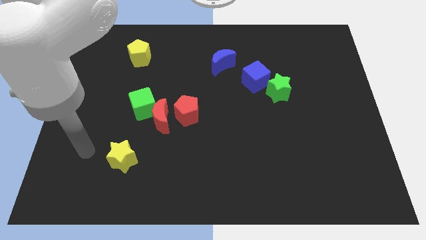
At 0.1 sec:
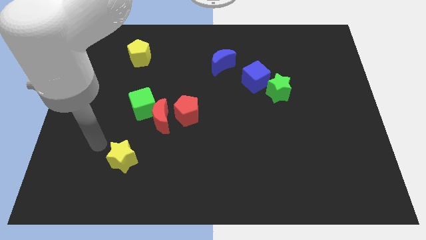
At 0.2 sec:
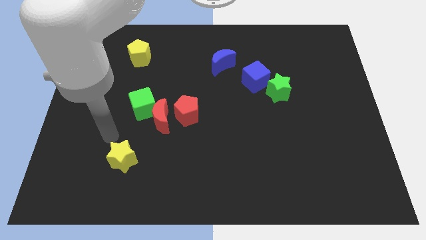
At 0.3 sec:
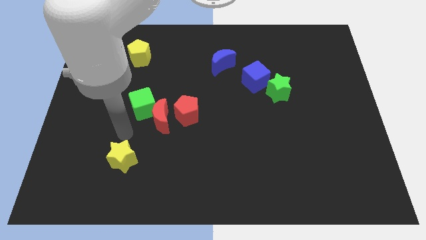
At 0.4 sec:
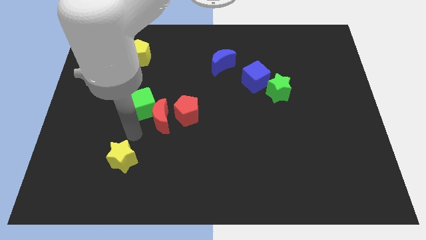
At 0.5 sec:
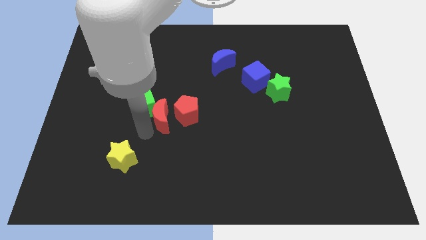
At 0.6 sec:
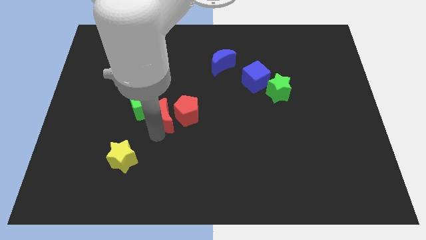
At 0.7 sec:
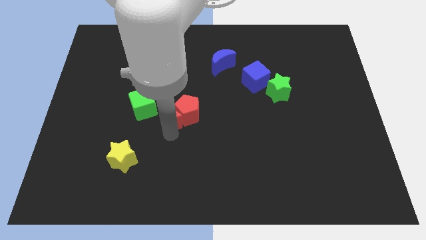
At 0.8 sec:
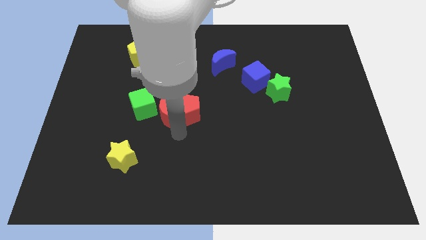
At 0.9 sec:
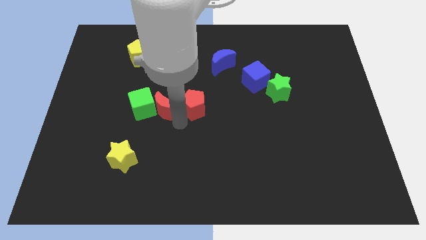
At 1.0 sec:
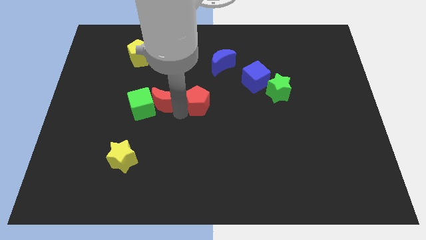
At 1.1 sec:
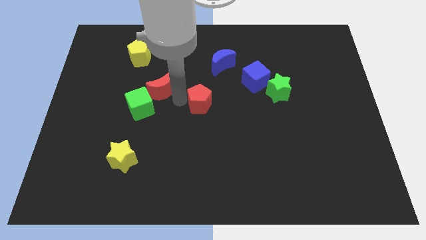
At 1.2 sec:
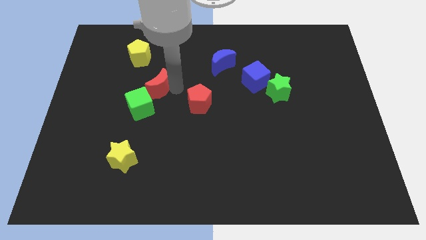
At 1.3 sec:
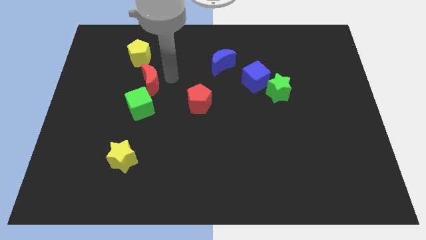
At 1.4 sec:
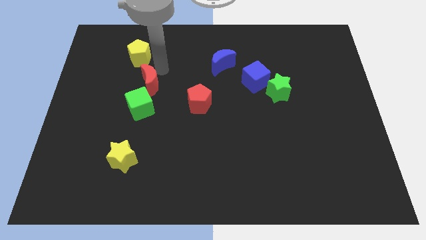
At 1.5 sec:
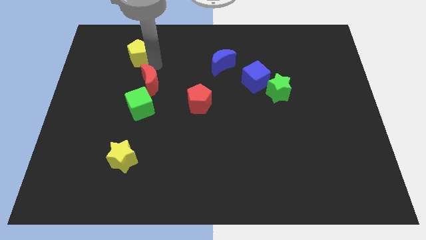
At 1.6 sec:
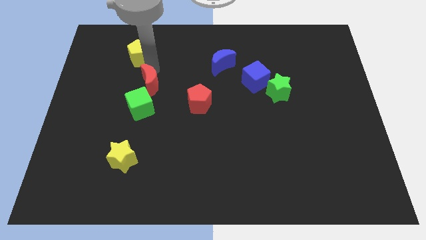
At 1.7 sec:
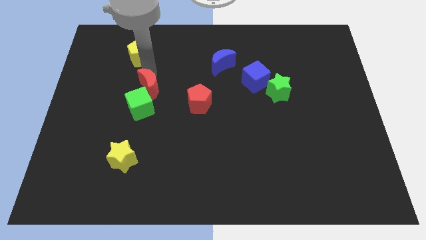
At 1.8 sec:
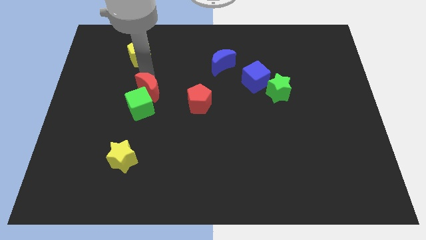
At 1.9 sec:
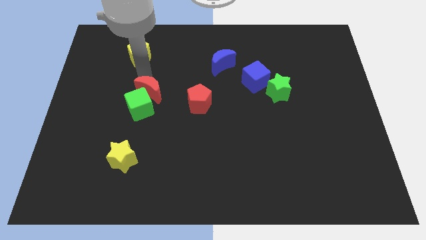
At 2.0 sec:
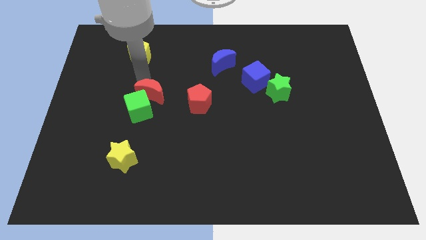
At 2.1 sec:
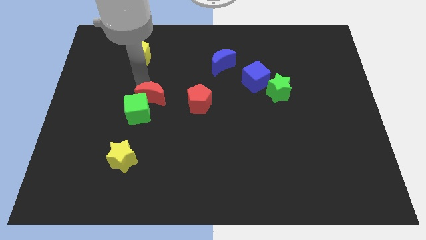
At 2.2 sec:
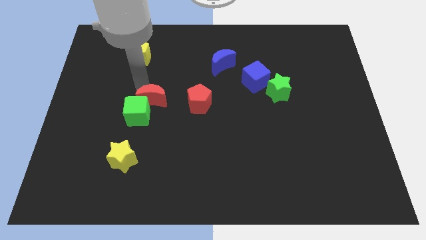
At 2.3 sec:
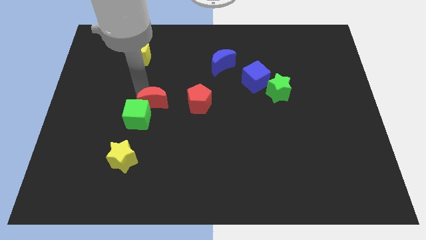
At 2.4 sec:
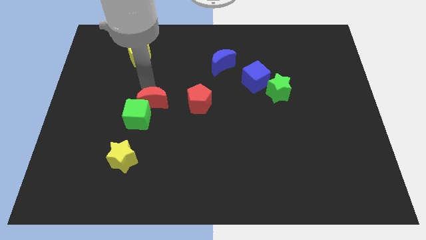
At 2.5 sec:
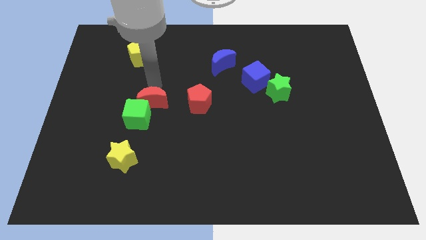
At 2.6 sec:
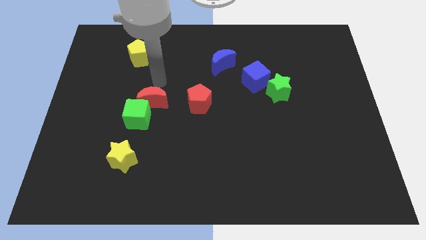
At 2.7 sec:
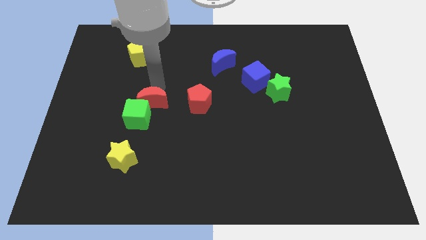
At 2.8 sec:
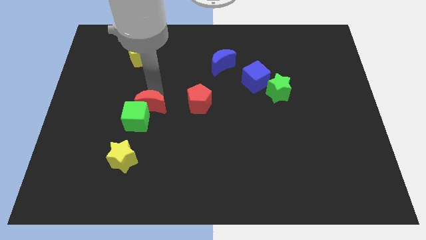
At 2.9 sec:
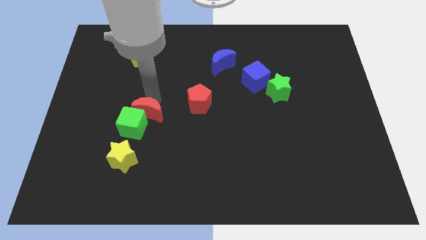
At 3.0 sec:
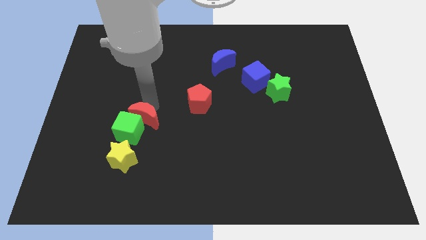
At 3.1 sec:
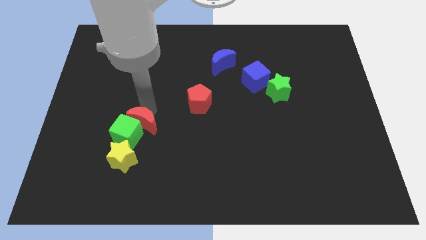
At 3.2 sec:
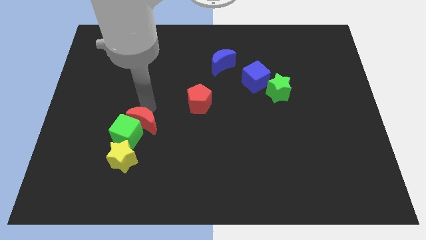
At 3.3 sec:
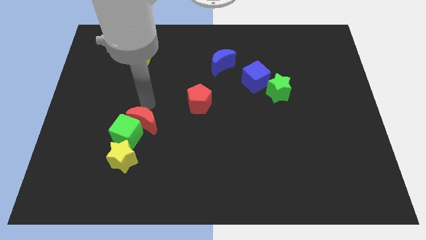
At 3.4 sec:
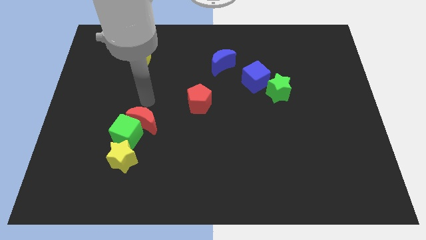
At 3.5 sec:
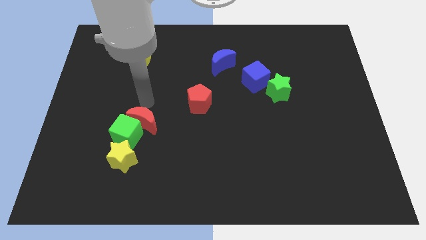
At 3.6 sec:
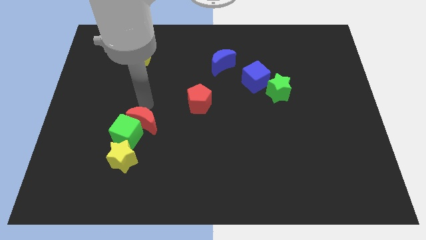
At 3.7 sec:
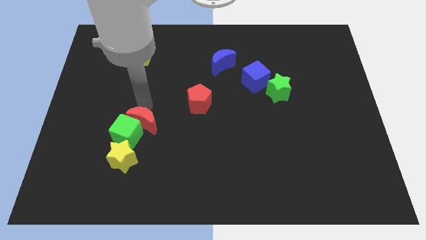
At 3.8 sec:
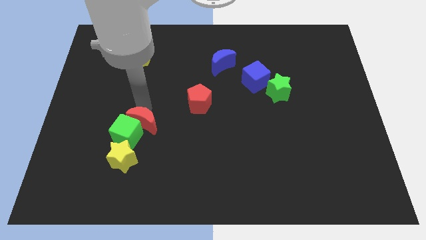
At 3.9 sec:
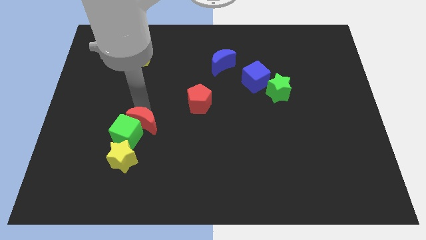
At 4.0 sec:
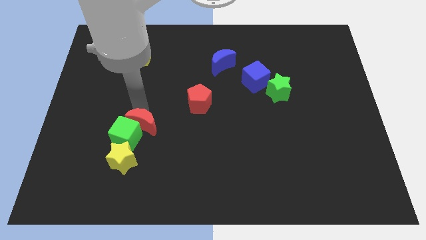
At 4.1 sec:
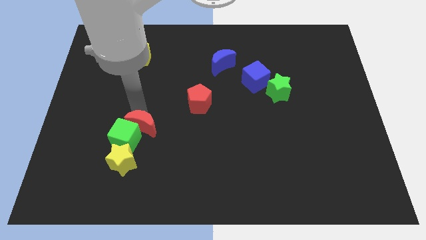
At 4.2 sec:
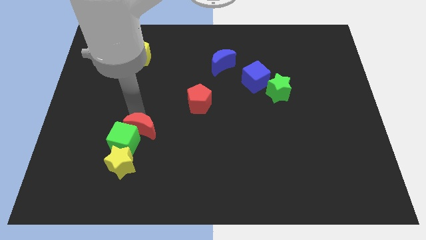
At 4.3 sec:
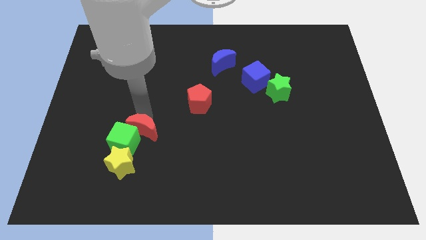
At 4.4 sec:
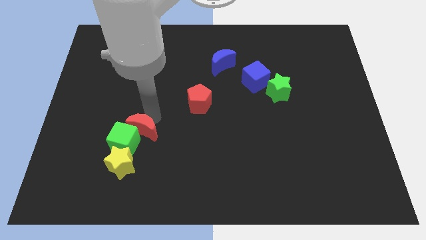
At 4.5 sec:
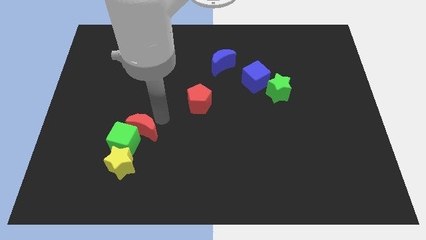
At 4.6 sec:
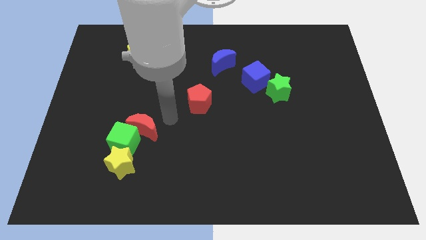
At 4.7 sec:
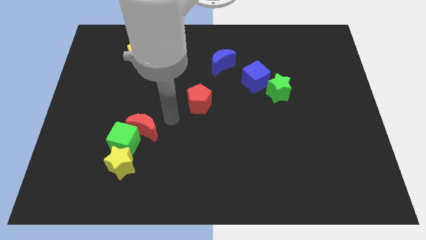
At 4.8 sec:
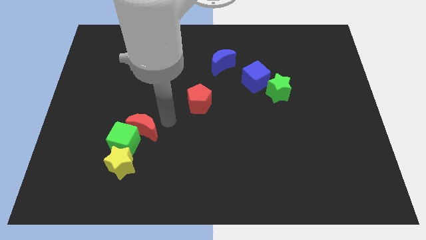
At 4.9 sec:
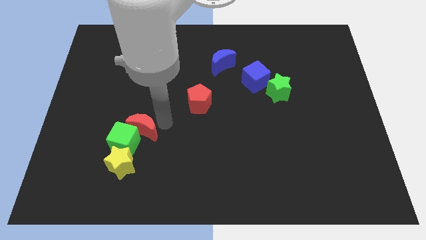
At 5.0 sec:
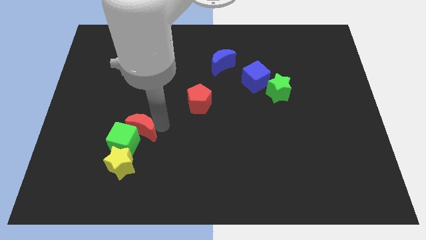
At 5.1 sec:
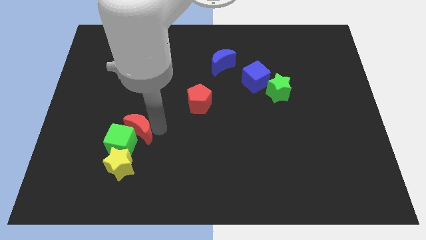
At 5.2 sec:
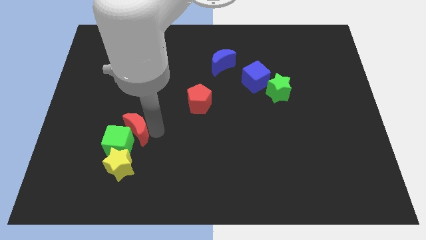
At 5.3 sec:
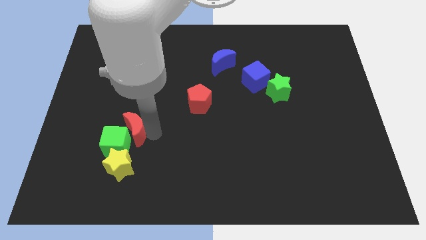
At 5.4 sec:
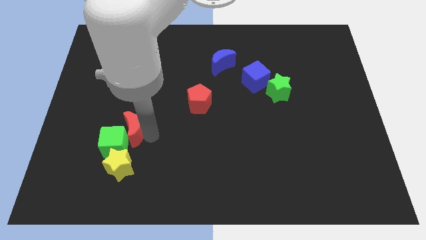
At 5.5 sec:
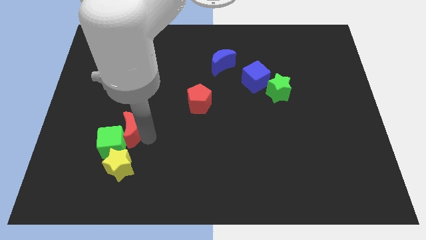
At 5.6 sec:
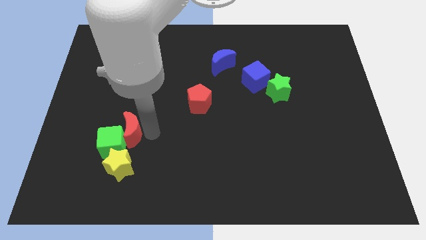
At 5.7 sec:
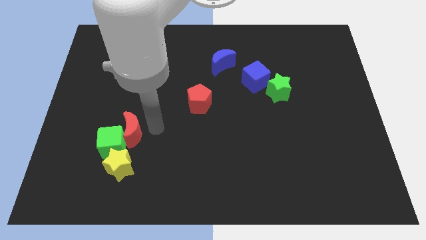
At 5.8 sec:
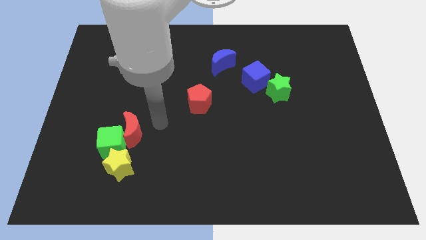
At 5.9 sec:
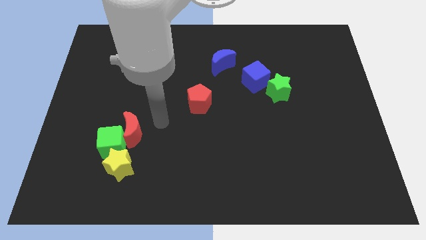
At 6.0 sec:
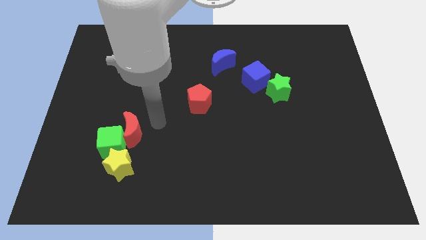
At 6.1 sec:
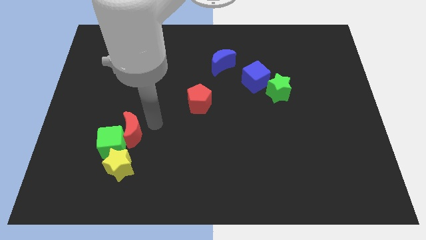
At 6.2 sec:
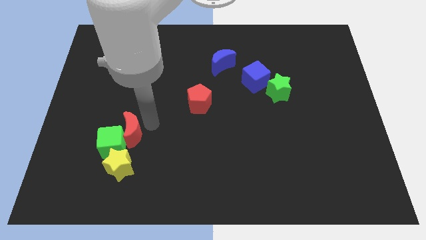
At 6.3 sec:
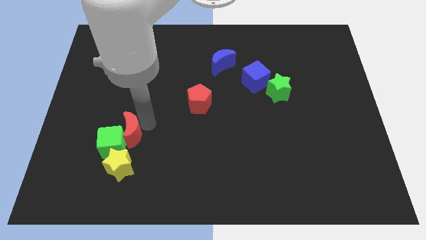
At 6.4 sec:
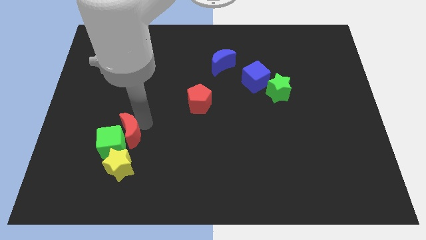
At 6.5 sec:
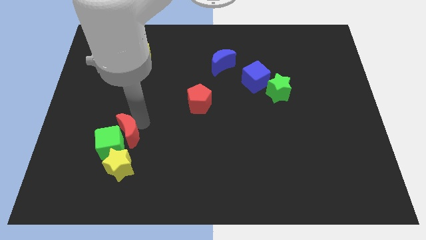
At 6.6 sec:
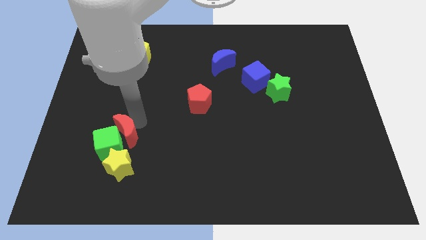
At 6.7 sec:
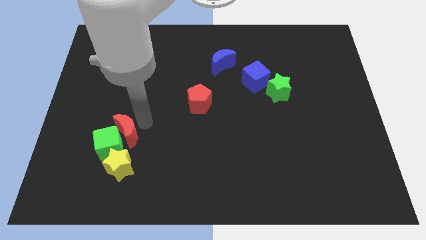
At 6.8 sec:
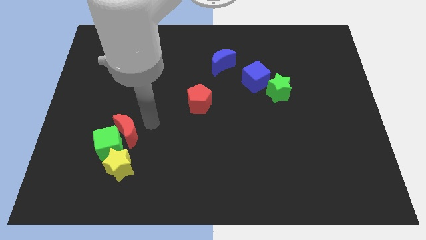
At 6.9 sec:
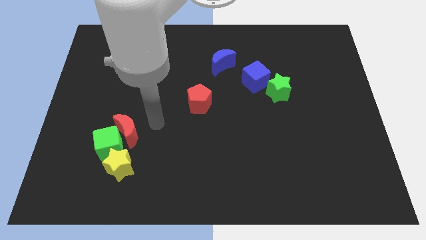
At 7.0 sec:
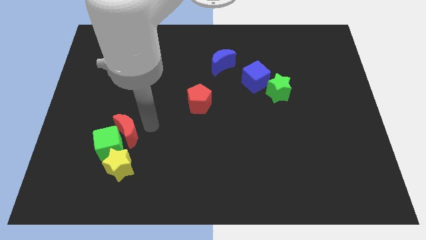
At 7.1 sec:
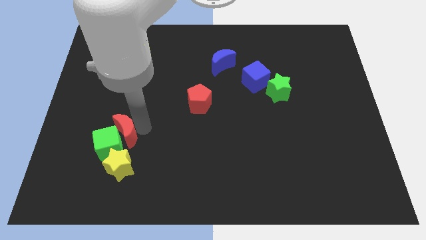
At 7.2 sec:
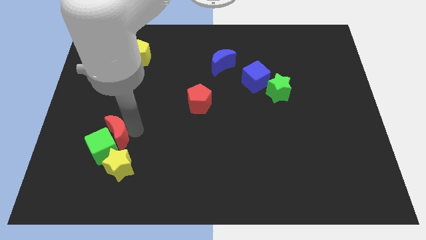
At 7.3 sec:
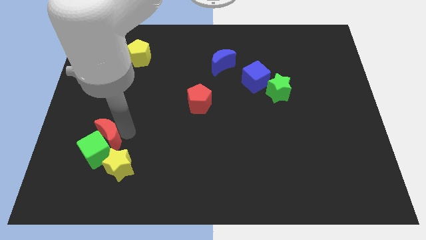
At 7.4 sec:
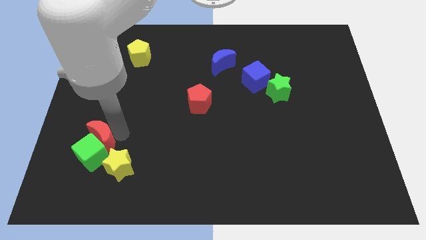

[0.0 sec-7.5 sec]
move the red moon away from the green cube and red pentagon

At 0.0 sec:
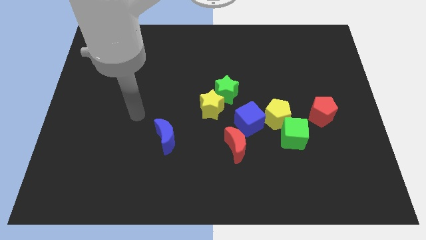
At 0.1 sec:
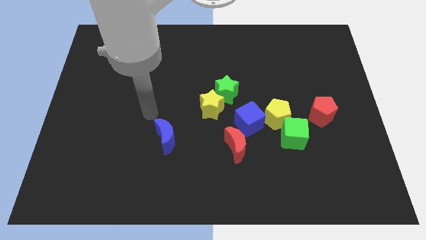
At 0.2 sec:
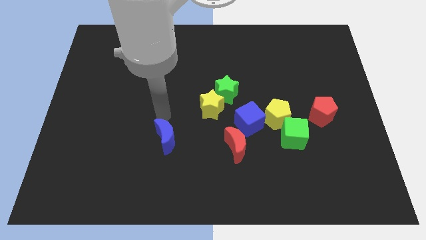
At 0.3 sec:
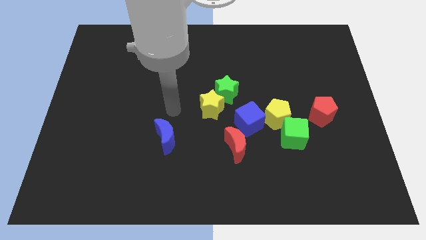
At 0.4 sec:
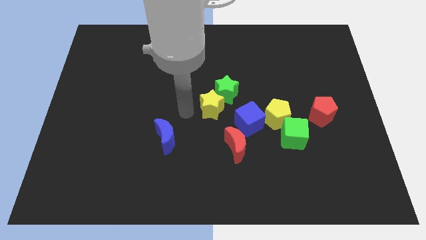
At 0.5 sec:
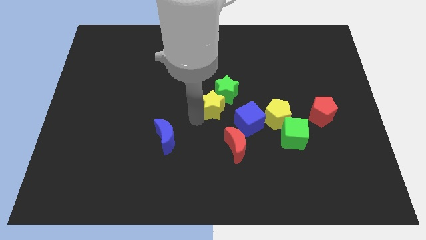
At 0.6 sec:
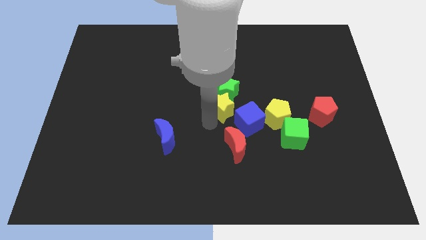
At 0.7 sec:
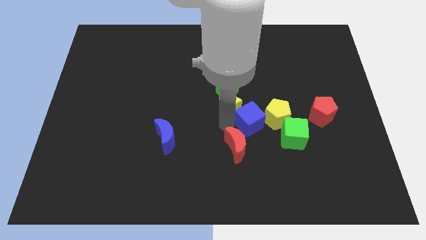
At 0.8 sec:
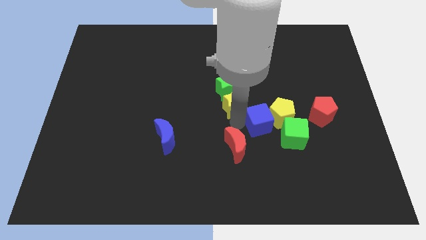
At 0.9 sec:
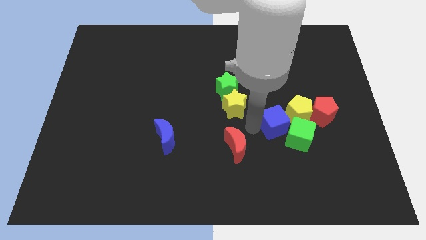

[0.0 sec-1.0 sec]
separate the red moon from the blue cube

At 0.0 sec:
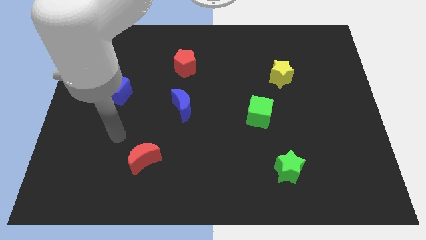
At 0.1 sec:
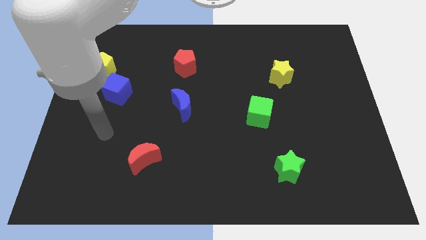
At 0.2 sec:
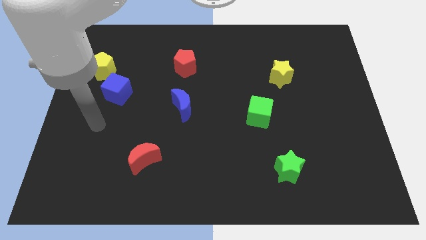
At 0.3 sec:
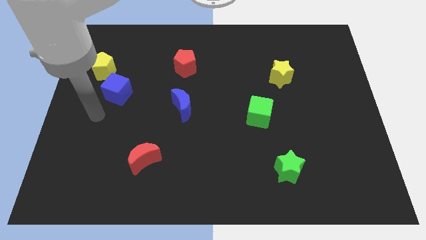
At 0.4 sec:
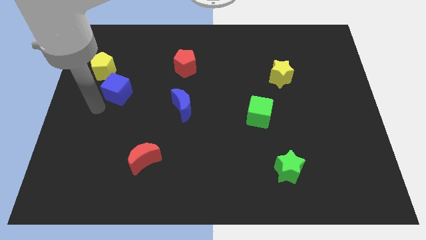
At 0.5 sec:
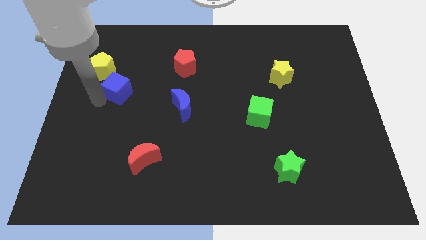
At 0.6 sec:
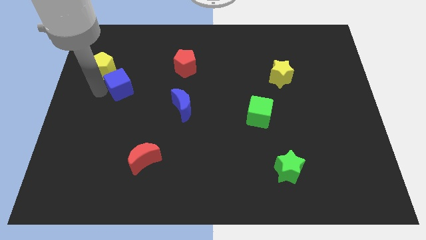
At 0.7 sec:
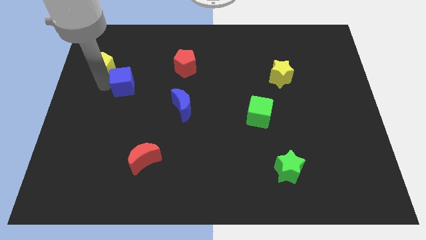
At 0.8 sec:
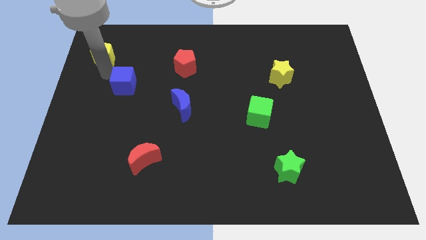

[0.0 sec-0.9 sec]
pull the blue cube apart from the yellow pentagon
